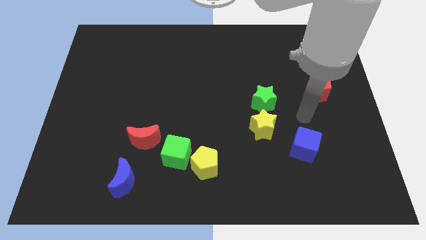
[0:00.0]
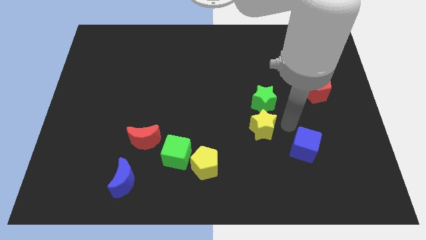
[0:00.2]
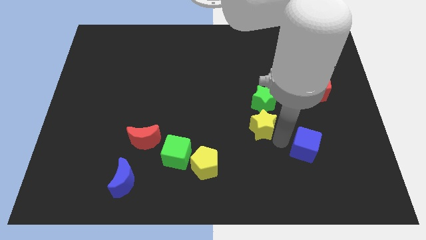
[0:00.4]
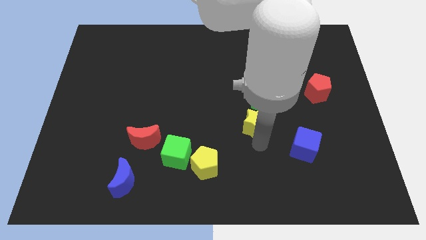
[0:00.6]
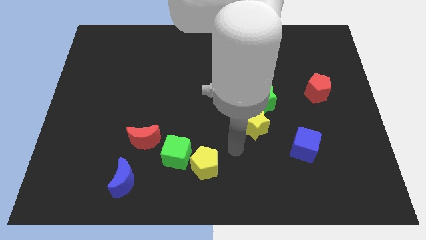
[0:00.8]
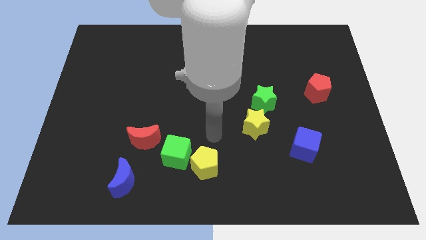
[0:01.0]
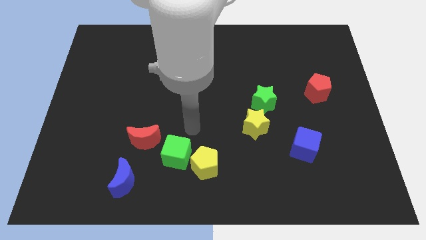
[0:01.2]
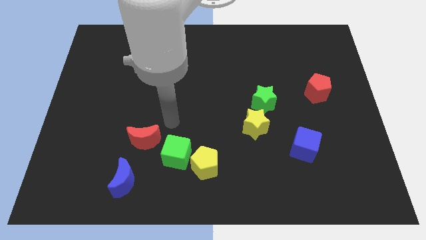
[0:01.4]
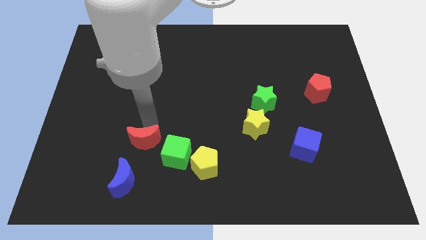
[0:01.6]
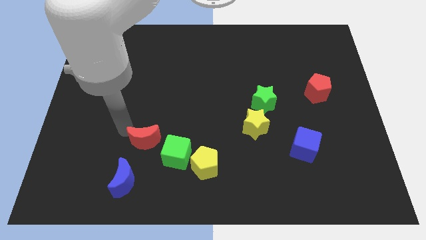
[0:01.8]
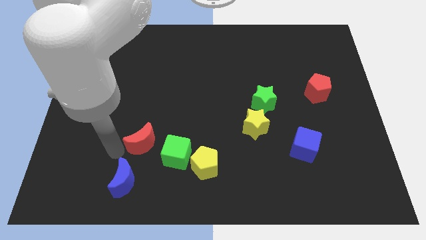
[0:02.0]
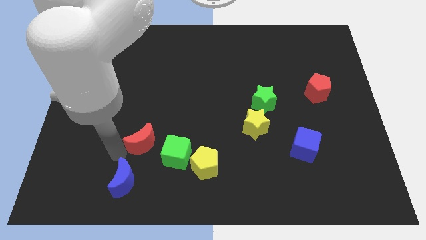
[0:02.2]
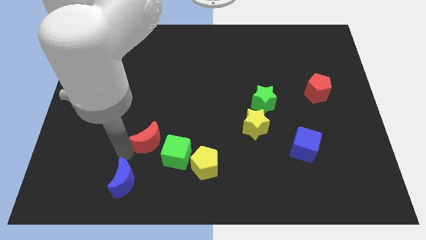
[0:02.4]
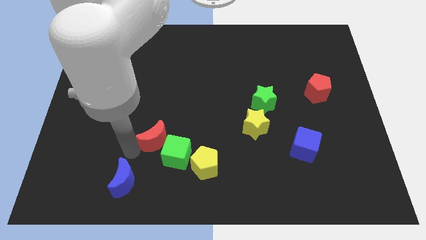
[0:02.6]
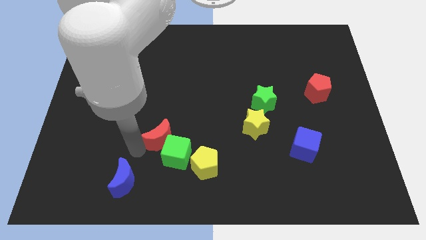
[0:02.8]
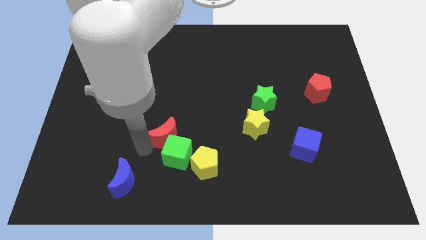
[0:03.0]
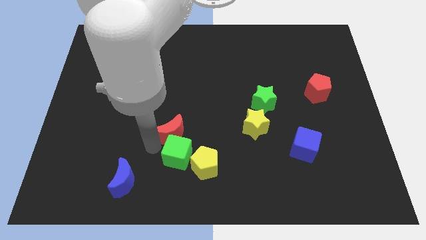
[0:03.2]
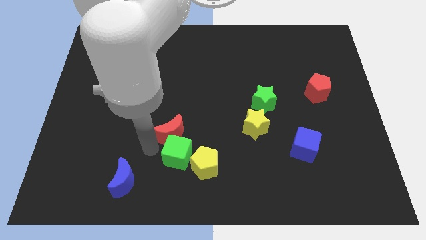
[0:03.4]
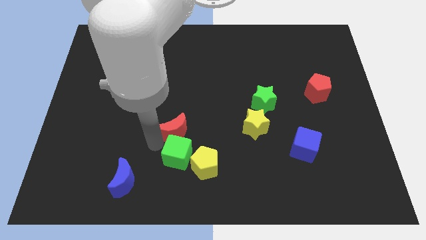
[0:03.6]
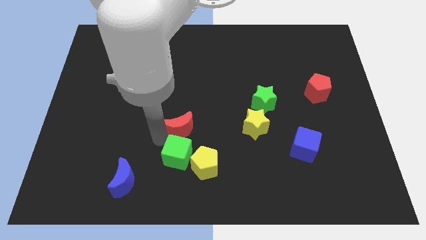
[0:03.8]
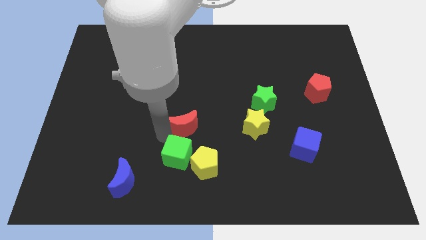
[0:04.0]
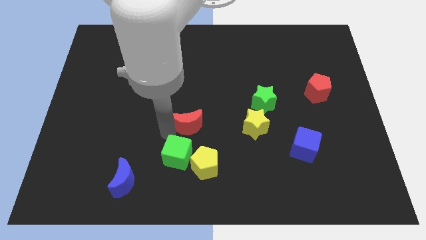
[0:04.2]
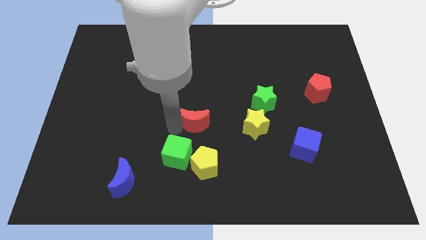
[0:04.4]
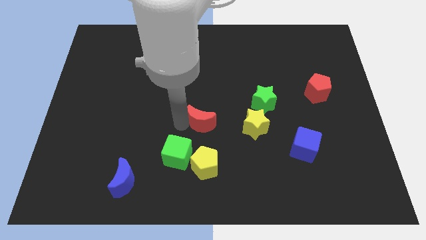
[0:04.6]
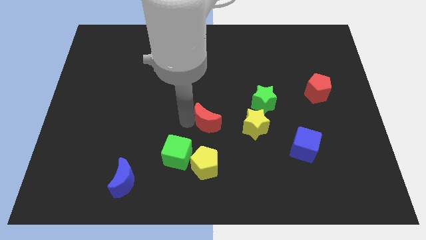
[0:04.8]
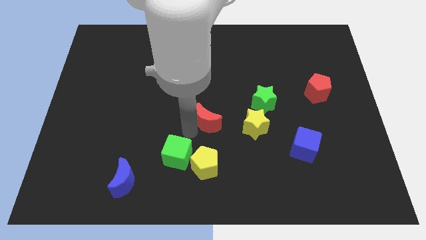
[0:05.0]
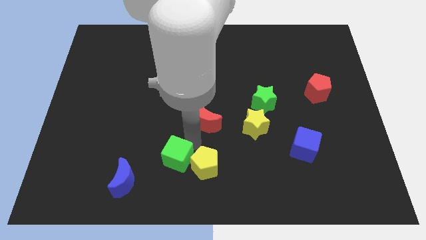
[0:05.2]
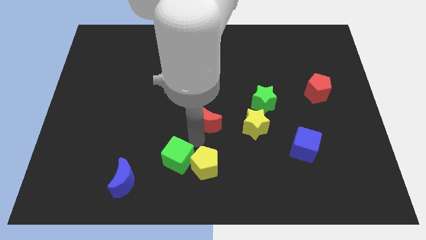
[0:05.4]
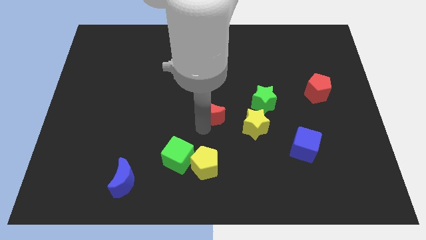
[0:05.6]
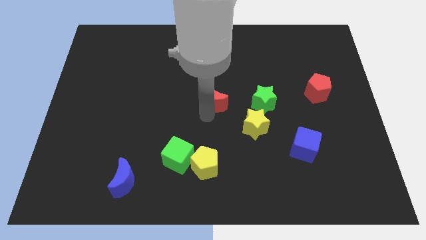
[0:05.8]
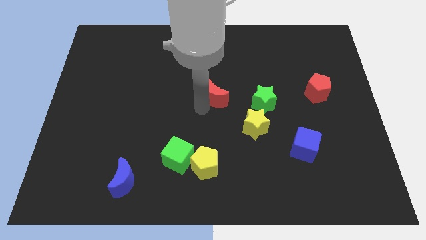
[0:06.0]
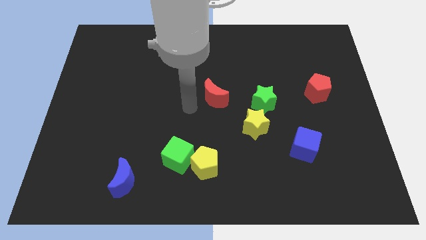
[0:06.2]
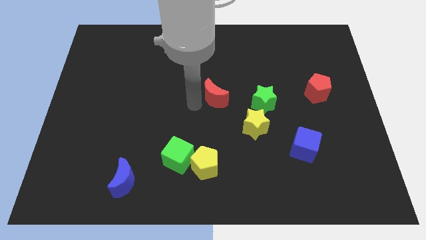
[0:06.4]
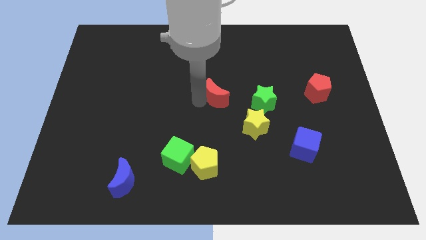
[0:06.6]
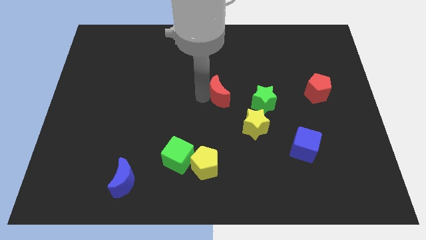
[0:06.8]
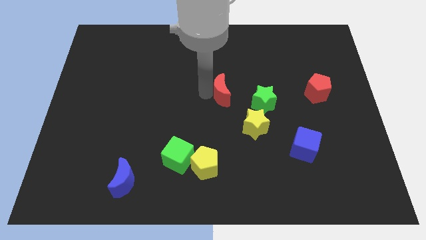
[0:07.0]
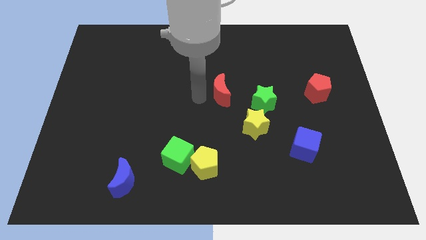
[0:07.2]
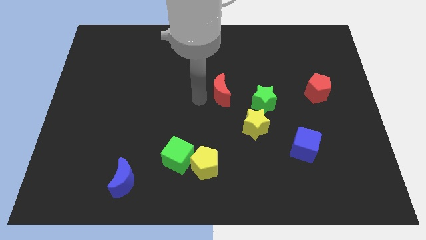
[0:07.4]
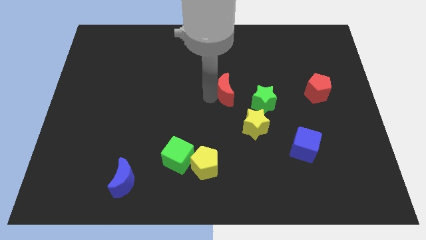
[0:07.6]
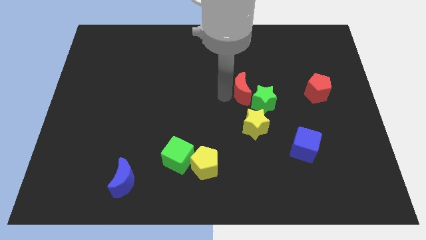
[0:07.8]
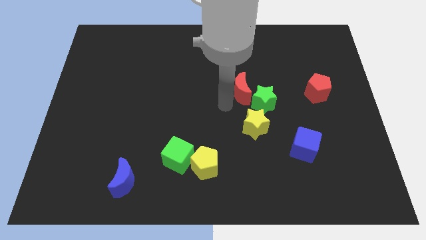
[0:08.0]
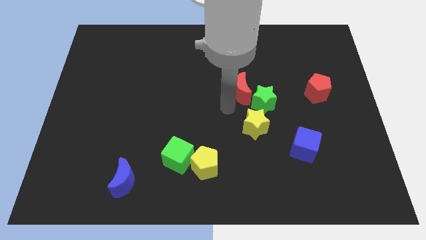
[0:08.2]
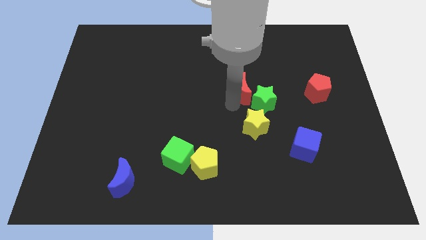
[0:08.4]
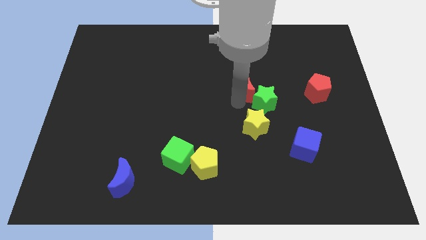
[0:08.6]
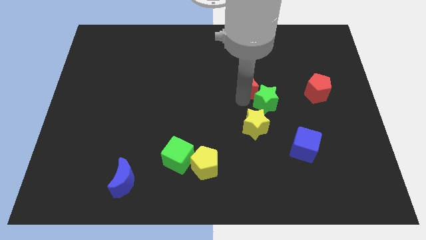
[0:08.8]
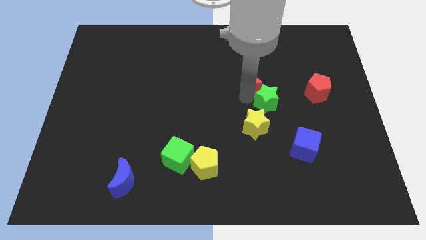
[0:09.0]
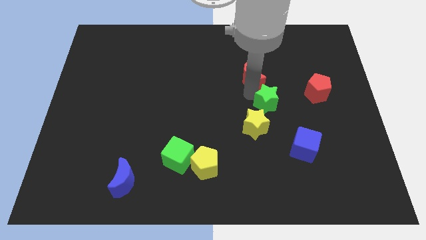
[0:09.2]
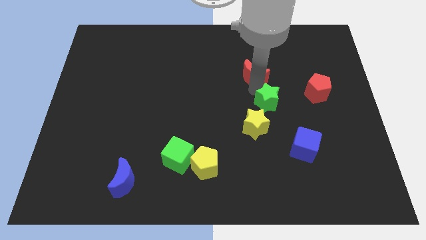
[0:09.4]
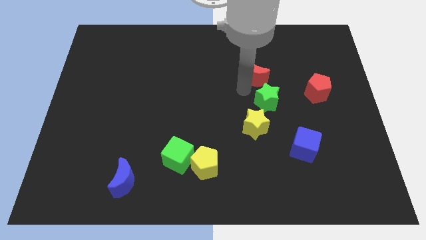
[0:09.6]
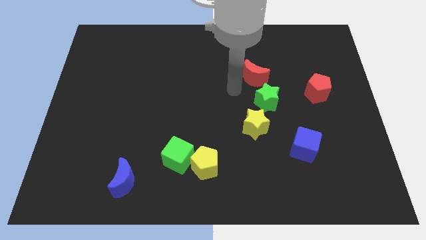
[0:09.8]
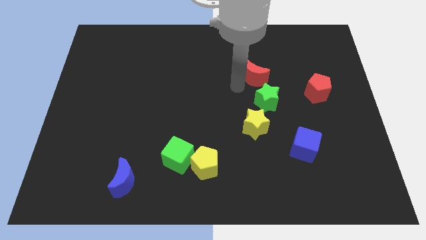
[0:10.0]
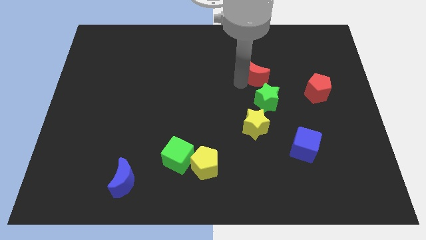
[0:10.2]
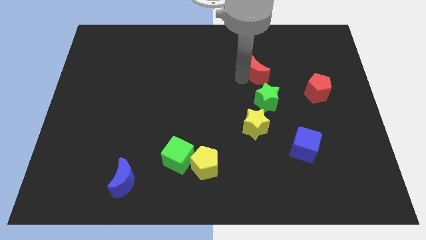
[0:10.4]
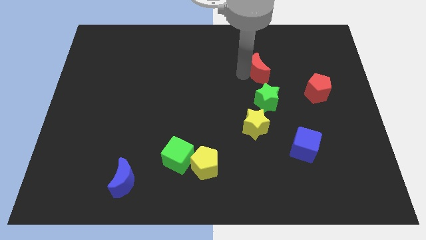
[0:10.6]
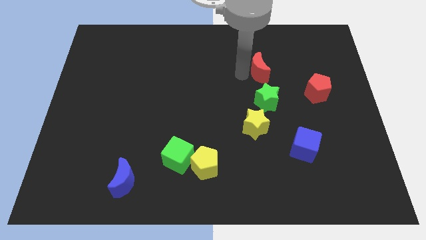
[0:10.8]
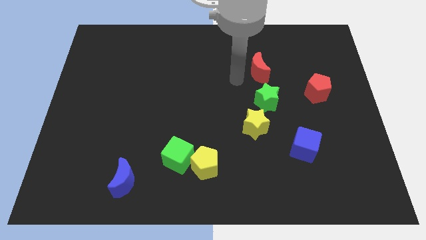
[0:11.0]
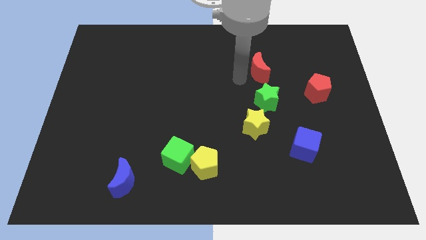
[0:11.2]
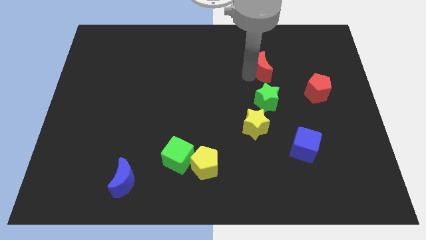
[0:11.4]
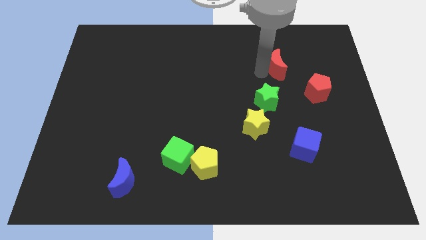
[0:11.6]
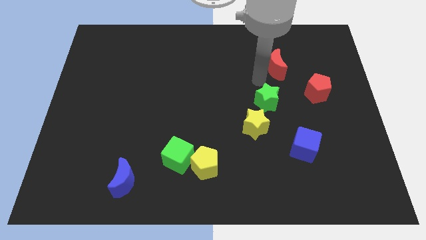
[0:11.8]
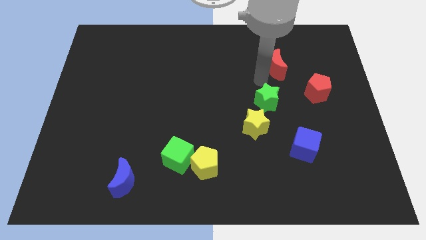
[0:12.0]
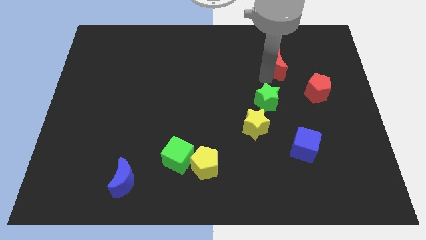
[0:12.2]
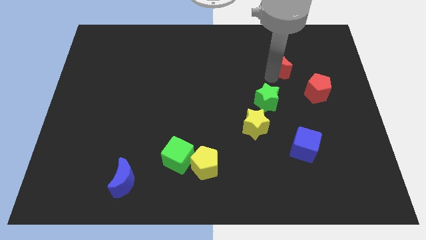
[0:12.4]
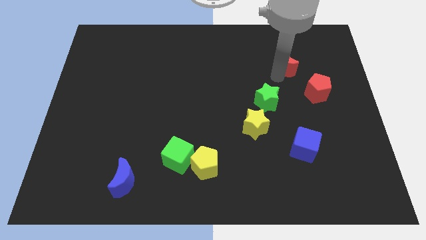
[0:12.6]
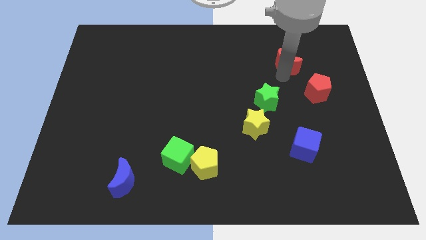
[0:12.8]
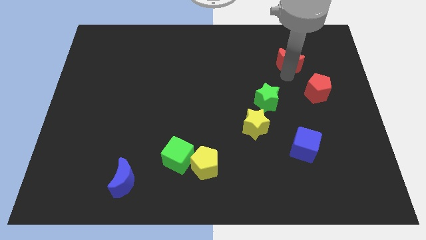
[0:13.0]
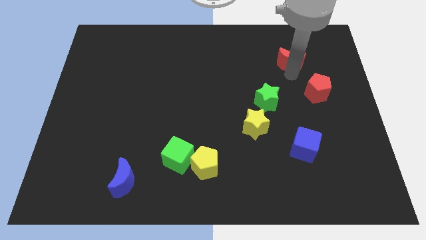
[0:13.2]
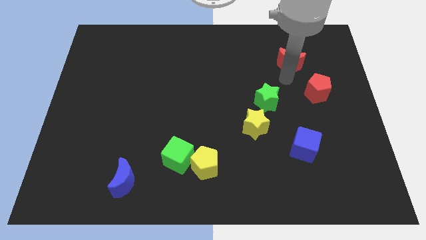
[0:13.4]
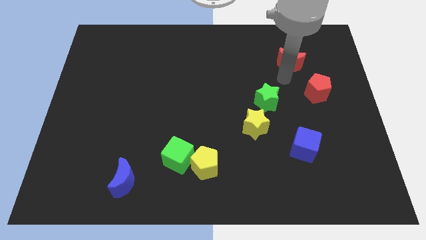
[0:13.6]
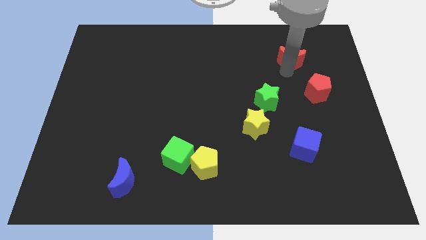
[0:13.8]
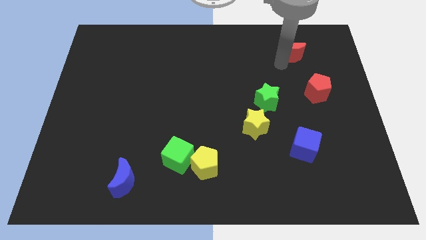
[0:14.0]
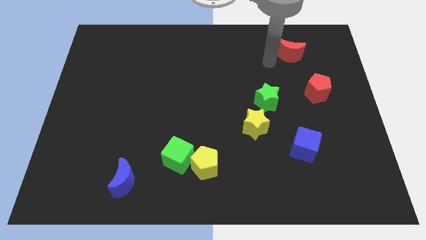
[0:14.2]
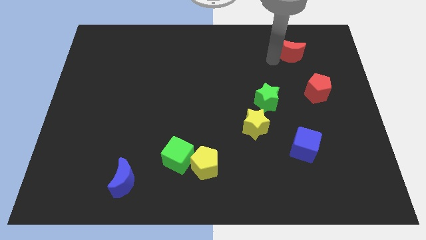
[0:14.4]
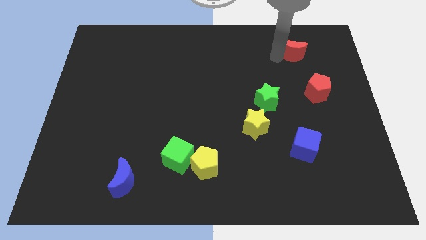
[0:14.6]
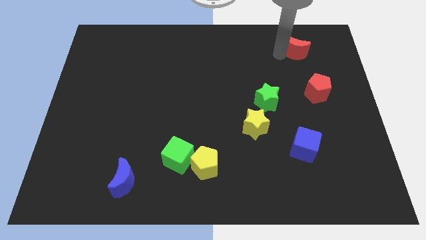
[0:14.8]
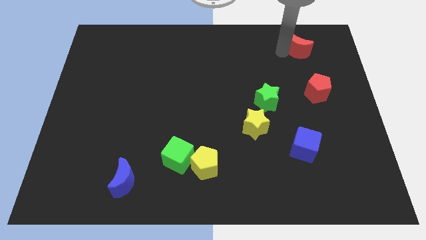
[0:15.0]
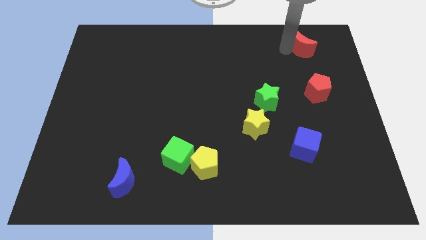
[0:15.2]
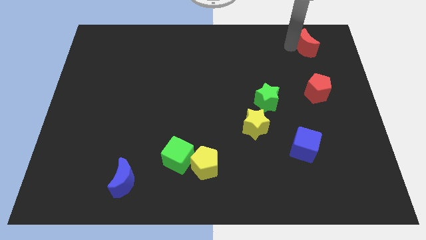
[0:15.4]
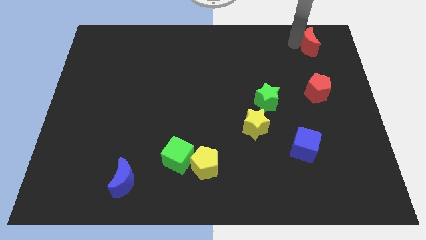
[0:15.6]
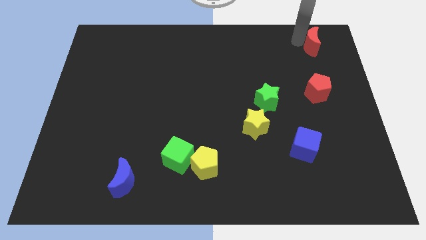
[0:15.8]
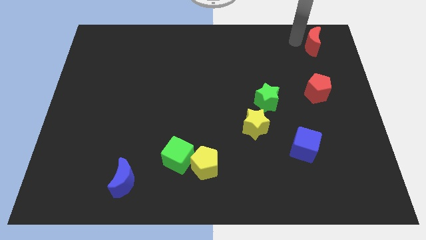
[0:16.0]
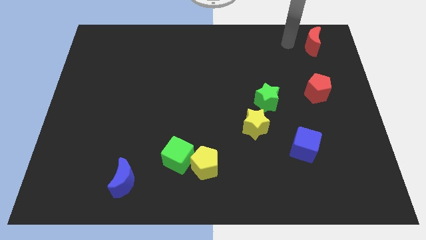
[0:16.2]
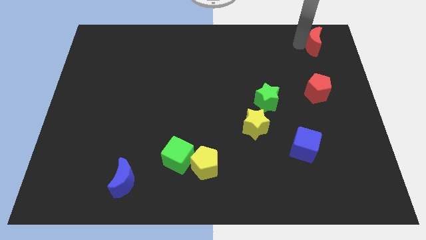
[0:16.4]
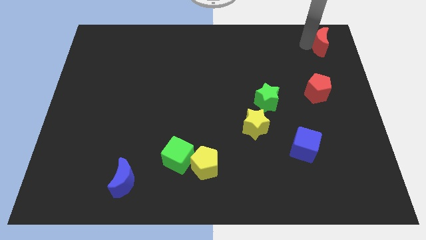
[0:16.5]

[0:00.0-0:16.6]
slide the red moon to the top right of the board
